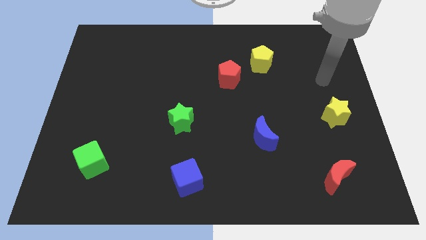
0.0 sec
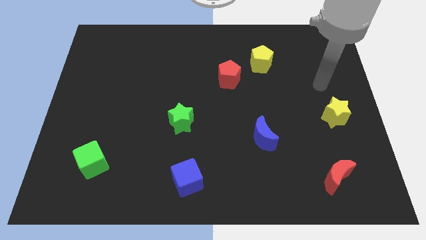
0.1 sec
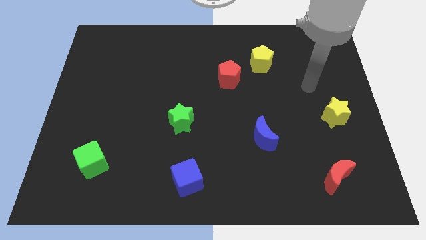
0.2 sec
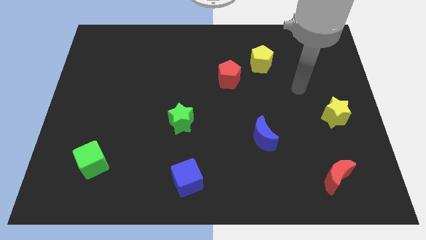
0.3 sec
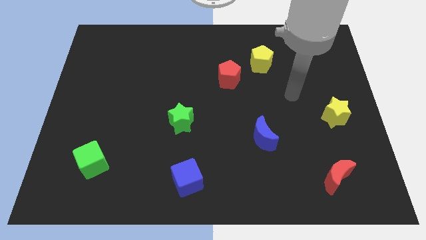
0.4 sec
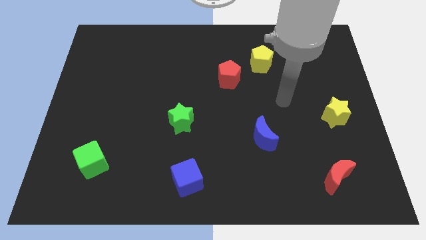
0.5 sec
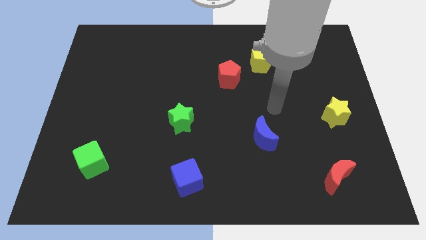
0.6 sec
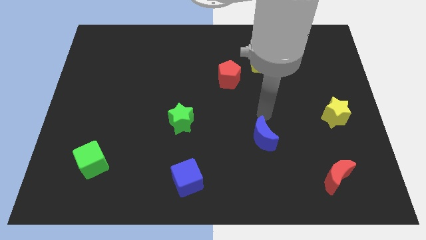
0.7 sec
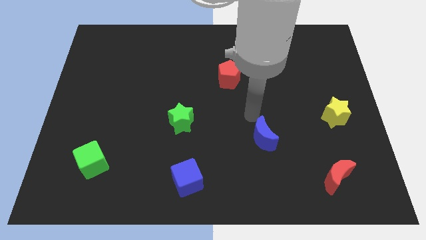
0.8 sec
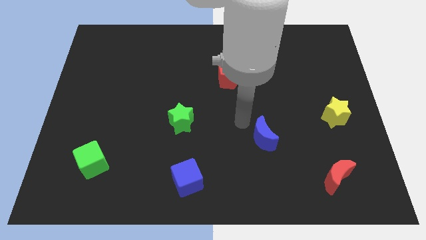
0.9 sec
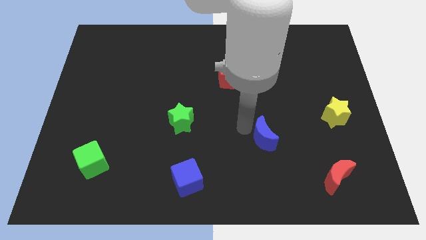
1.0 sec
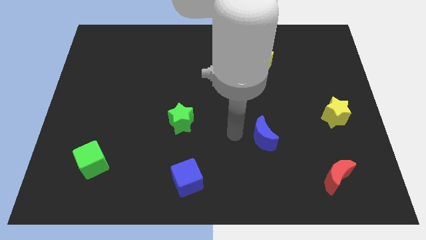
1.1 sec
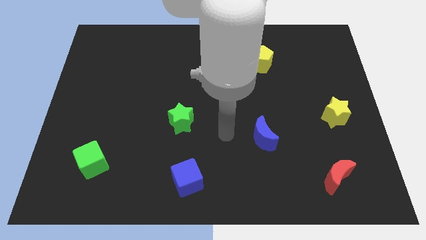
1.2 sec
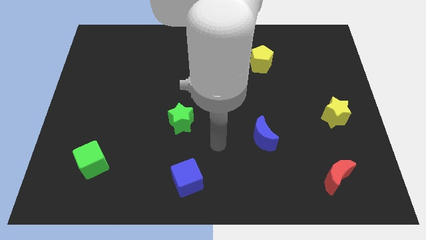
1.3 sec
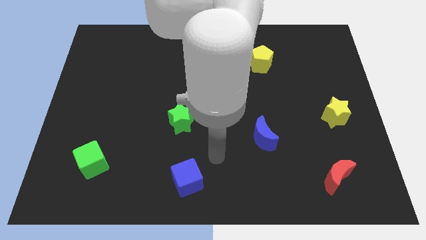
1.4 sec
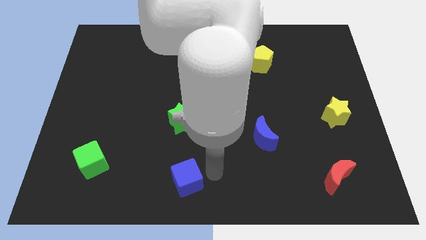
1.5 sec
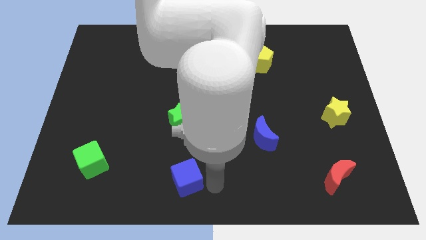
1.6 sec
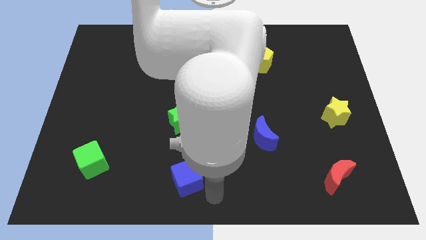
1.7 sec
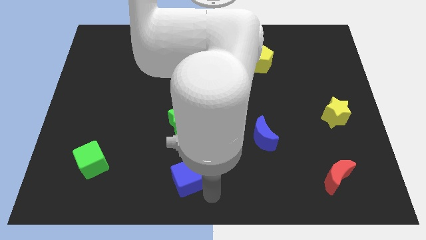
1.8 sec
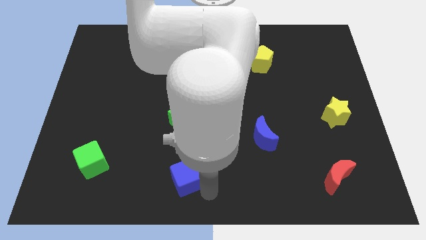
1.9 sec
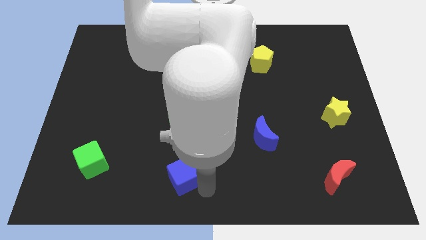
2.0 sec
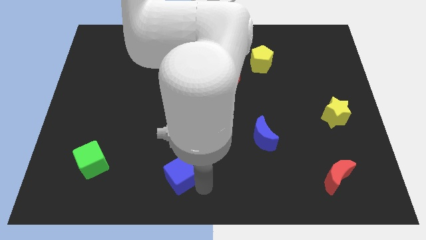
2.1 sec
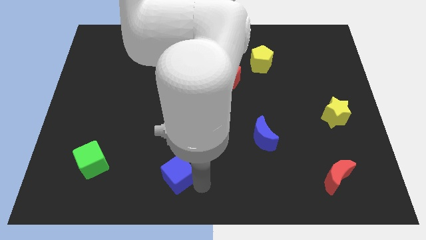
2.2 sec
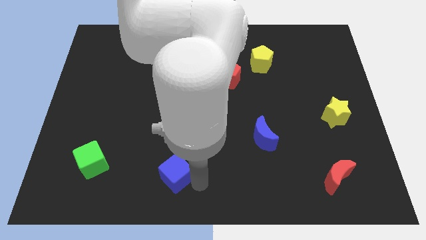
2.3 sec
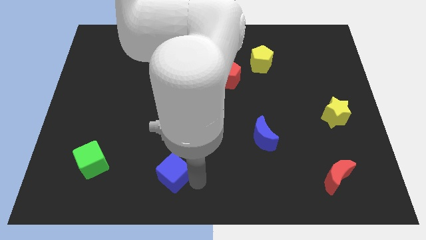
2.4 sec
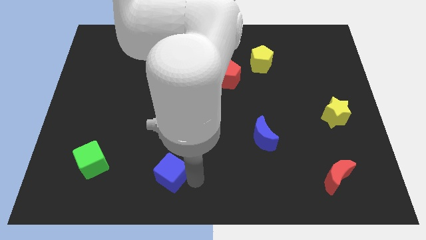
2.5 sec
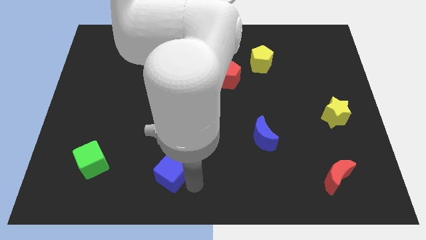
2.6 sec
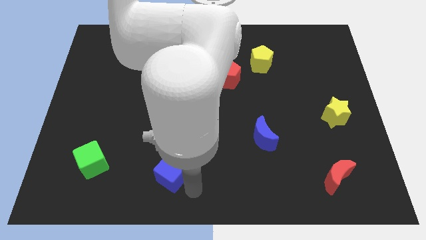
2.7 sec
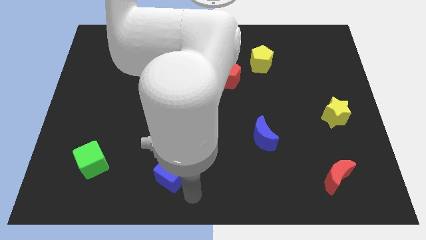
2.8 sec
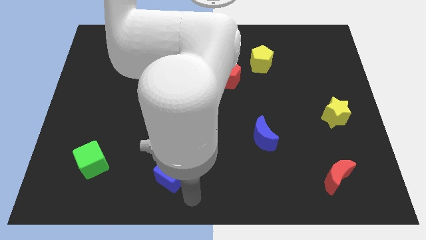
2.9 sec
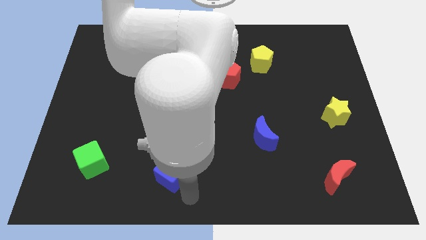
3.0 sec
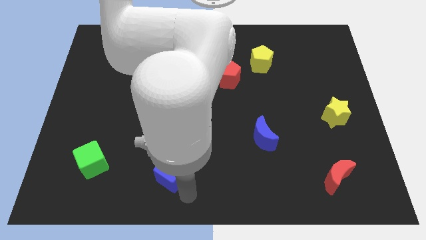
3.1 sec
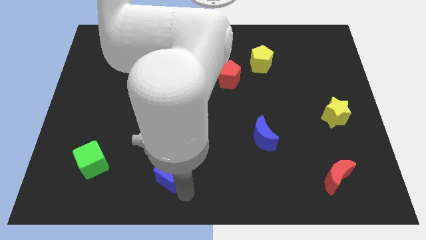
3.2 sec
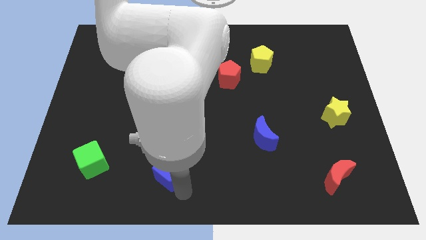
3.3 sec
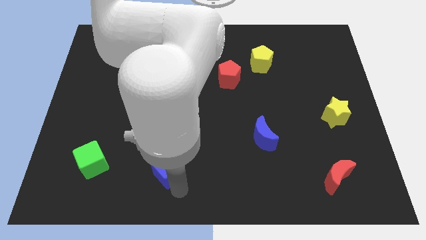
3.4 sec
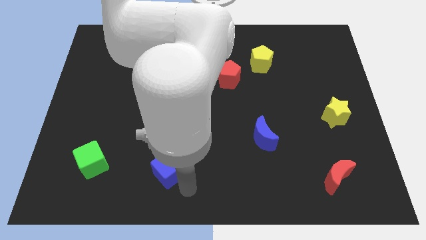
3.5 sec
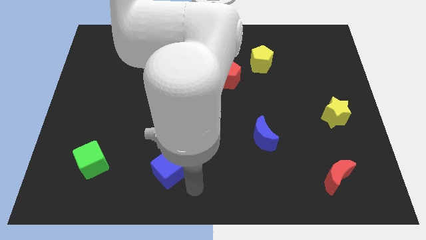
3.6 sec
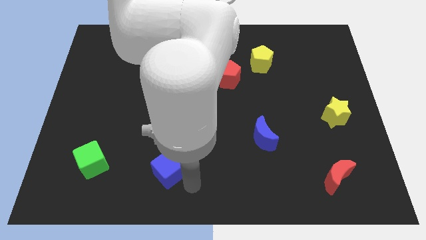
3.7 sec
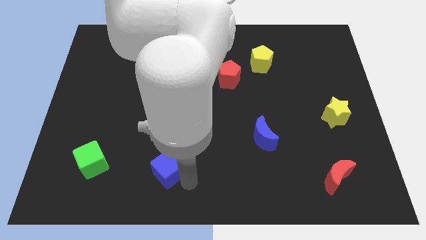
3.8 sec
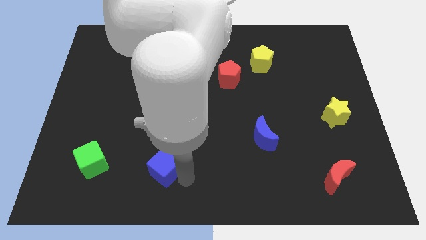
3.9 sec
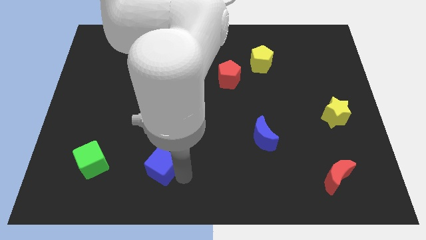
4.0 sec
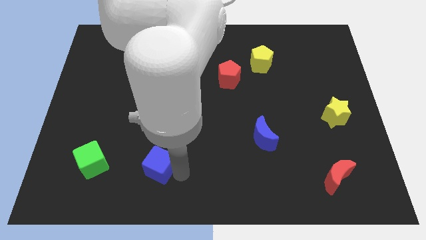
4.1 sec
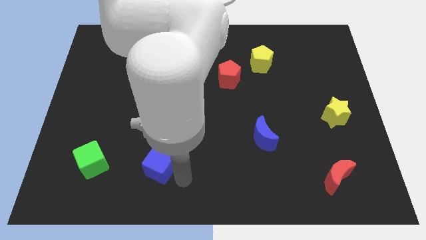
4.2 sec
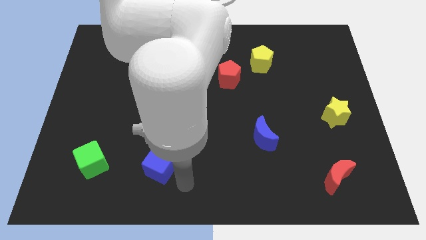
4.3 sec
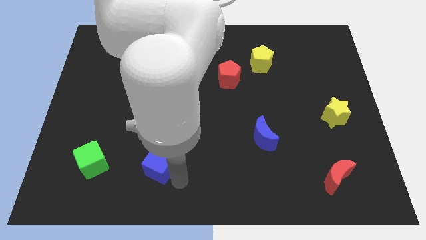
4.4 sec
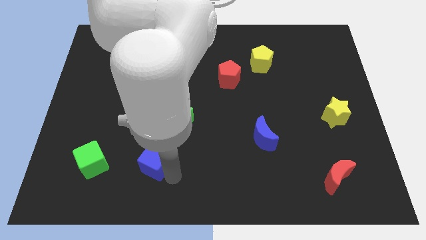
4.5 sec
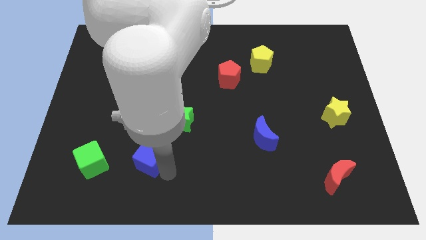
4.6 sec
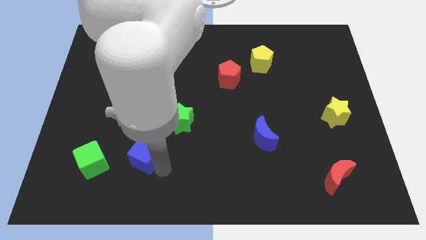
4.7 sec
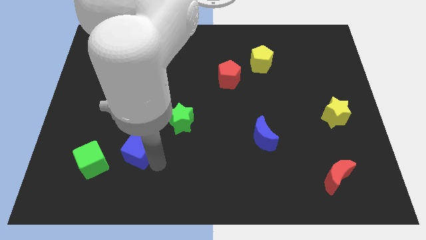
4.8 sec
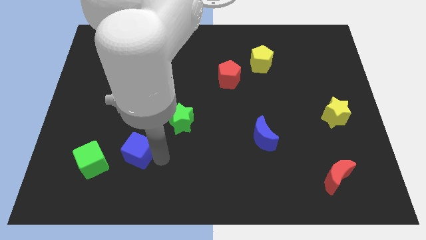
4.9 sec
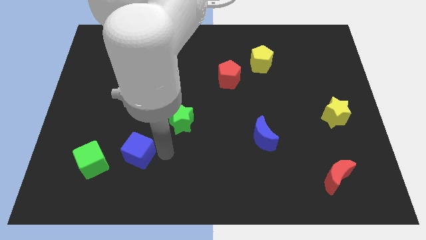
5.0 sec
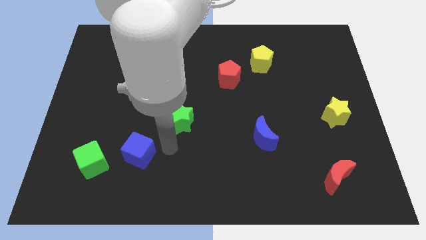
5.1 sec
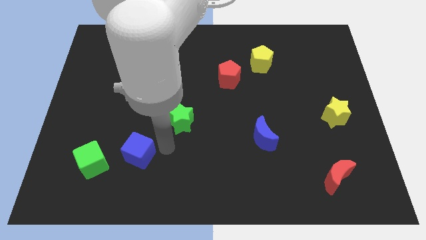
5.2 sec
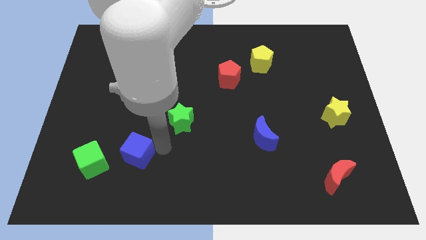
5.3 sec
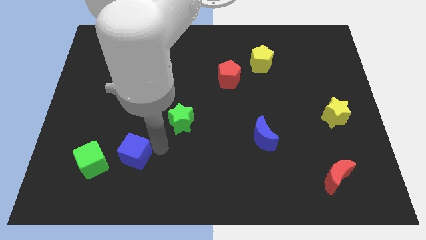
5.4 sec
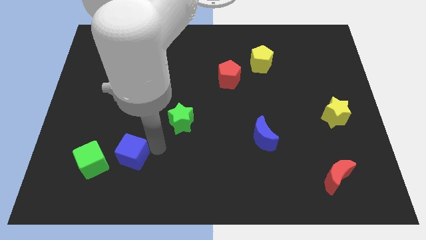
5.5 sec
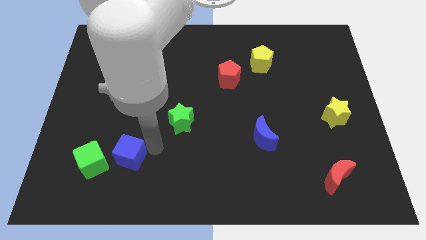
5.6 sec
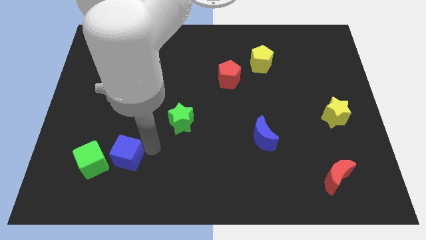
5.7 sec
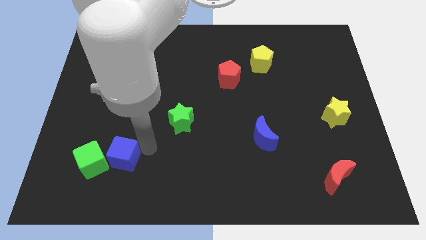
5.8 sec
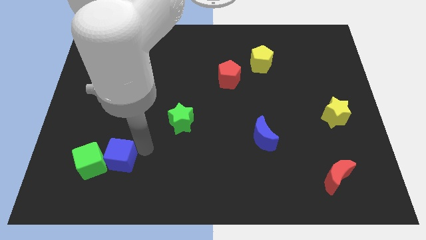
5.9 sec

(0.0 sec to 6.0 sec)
put the blue cube next to the green cube
